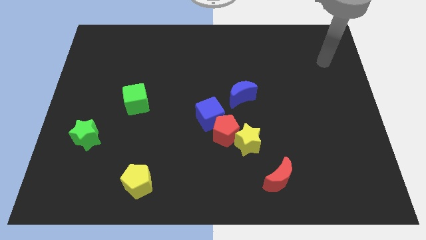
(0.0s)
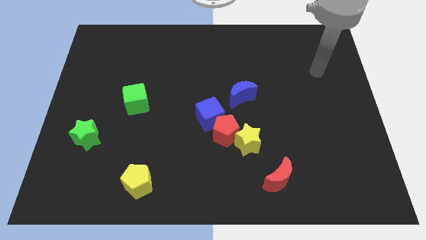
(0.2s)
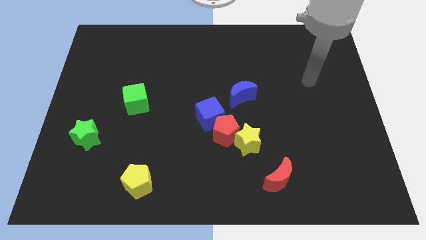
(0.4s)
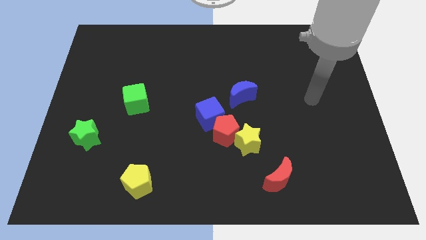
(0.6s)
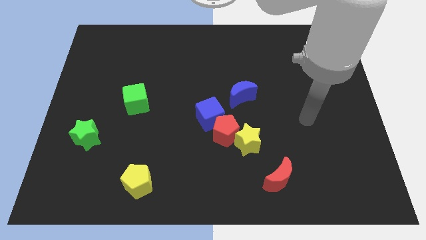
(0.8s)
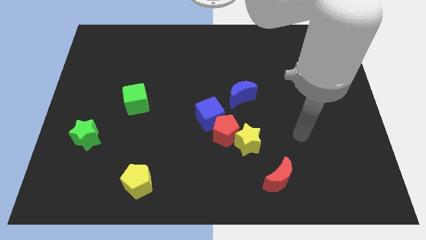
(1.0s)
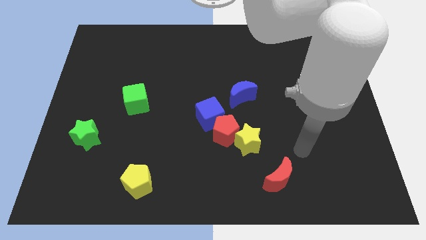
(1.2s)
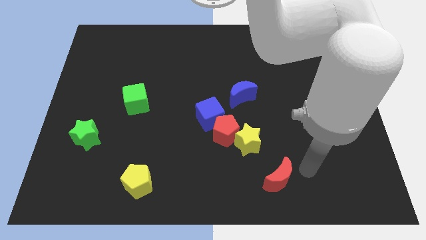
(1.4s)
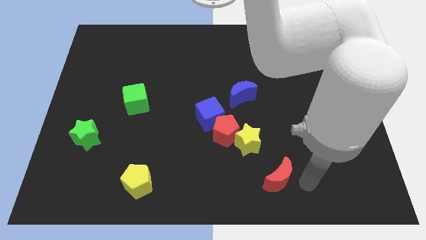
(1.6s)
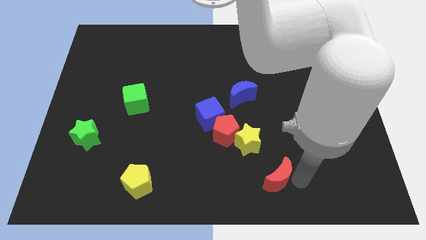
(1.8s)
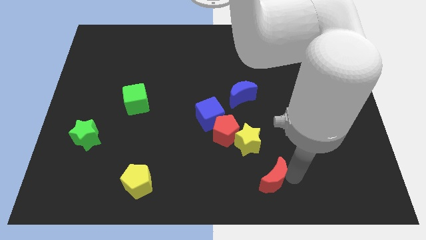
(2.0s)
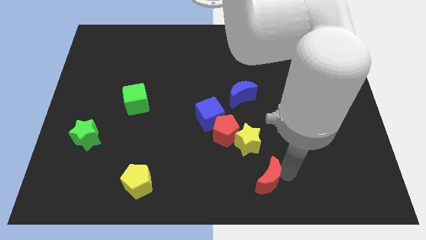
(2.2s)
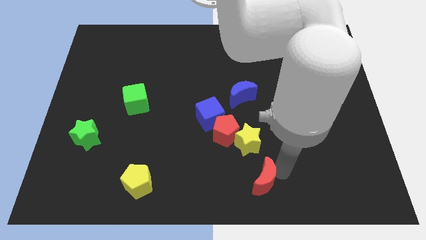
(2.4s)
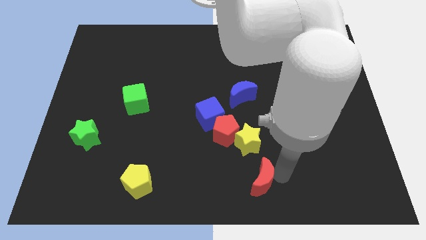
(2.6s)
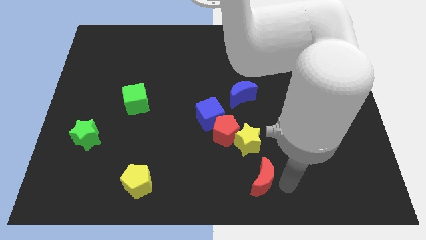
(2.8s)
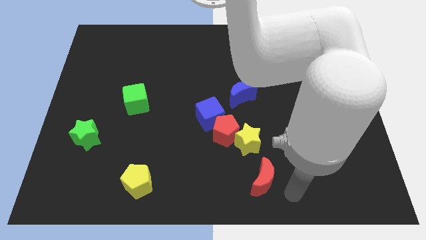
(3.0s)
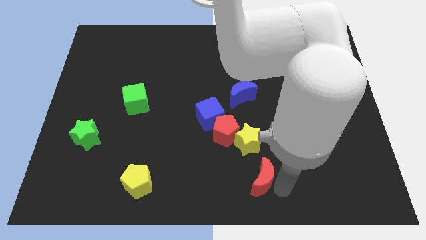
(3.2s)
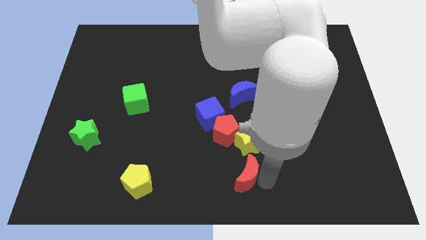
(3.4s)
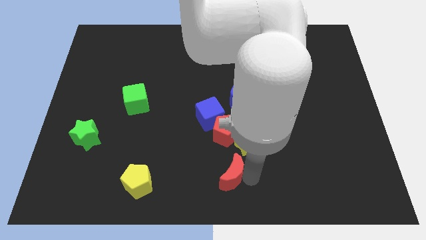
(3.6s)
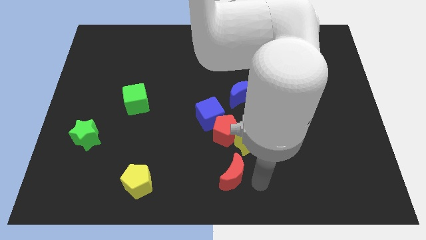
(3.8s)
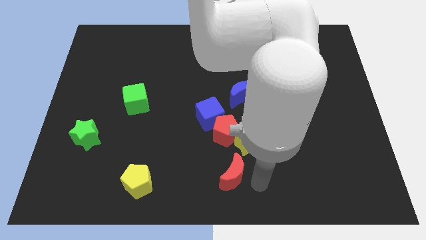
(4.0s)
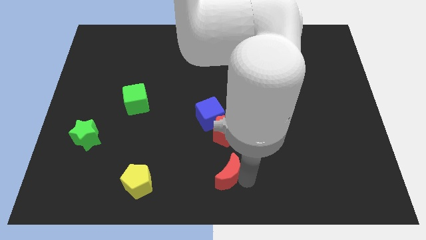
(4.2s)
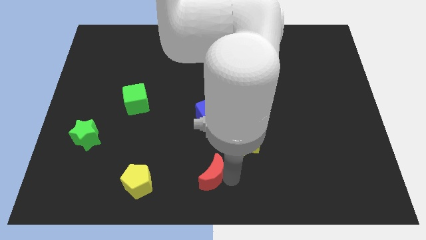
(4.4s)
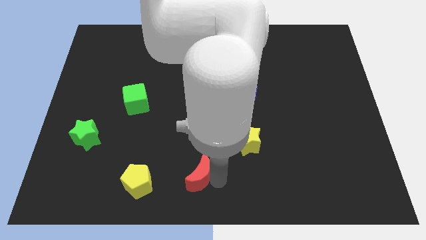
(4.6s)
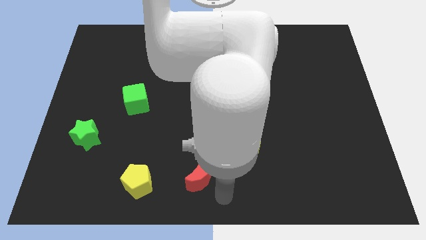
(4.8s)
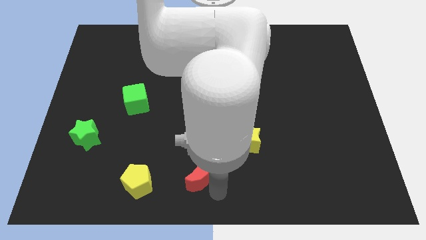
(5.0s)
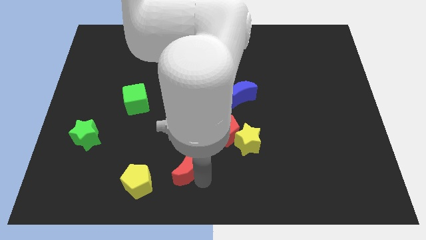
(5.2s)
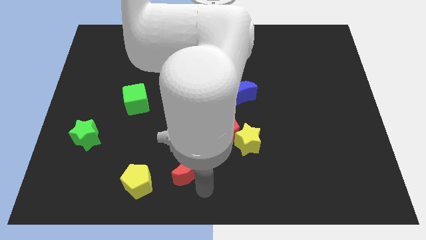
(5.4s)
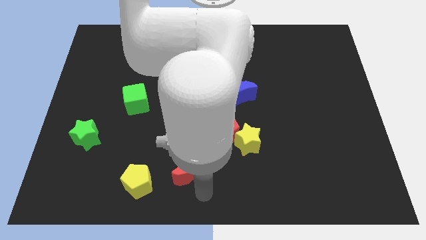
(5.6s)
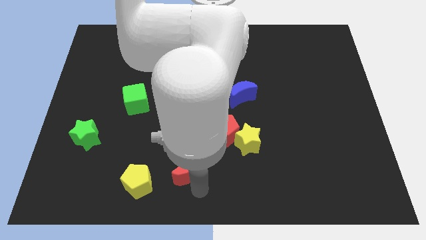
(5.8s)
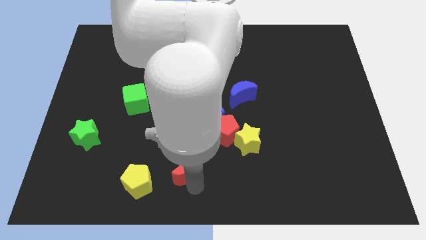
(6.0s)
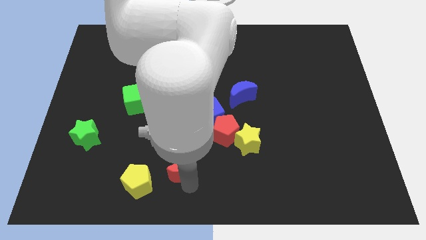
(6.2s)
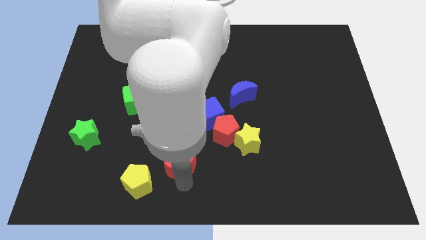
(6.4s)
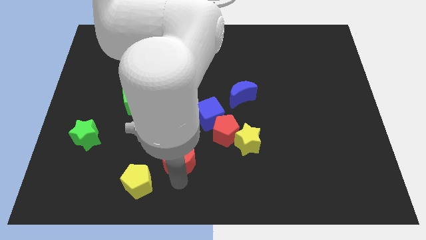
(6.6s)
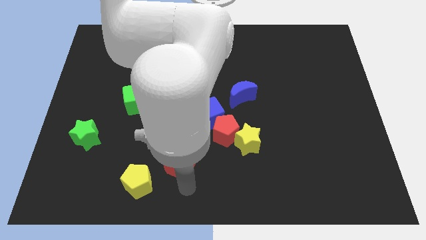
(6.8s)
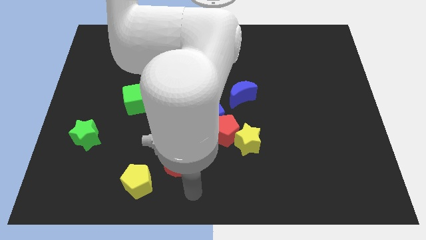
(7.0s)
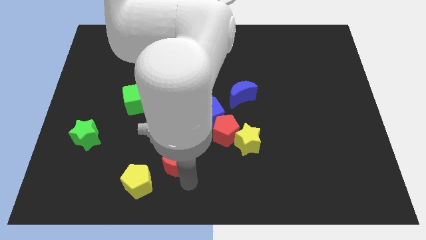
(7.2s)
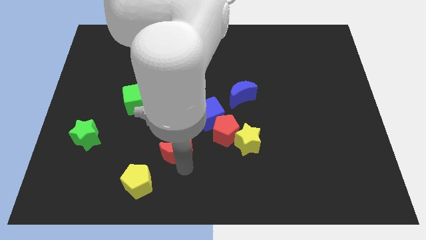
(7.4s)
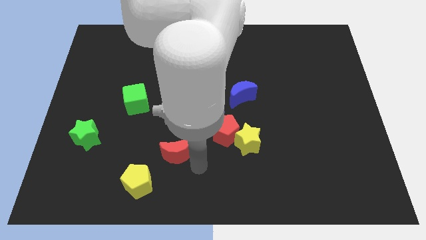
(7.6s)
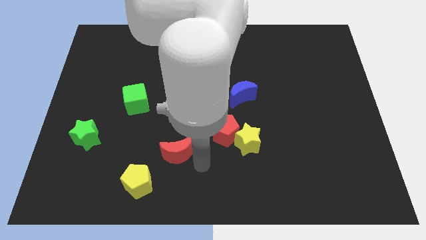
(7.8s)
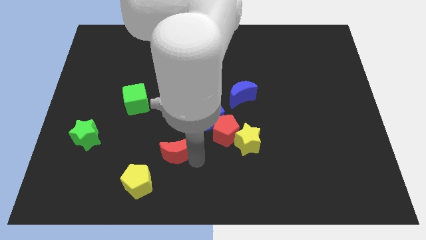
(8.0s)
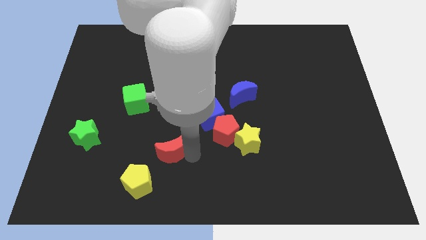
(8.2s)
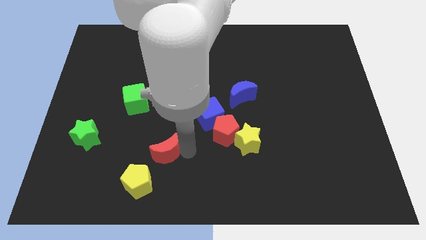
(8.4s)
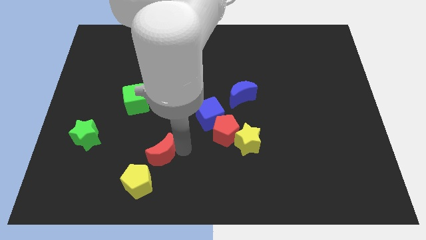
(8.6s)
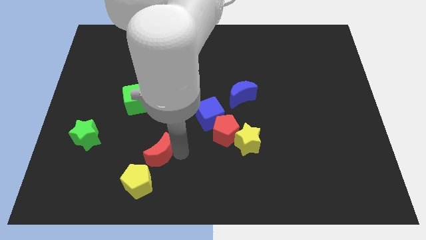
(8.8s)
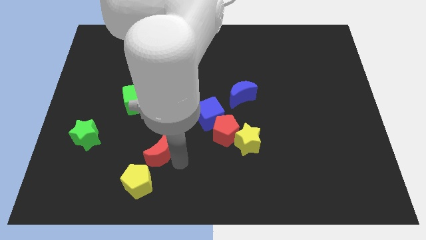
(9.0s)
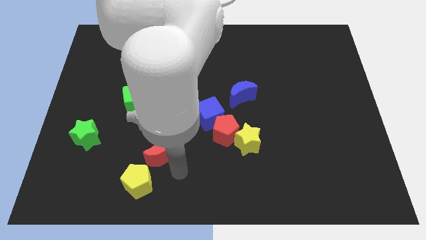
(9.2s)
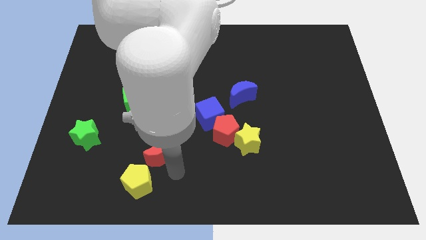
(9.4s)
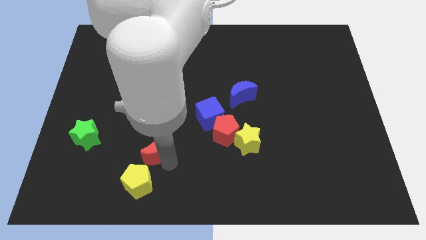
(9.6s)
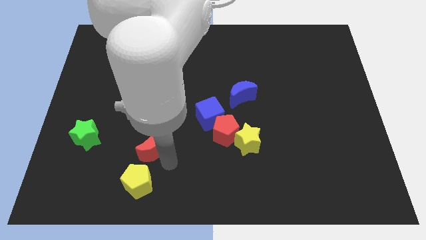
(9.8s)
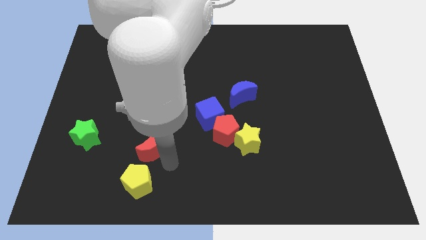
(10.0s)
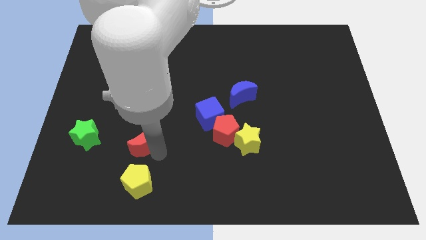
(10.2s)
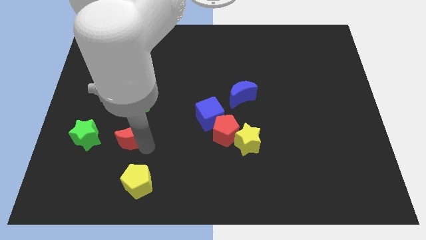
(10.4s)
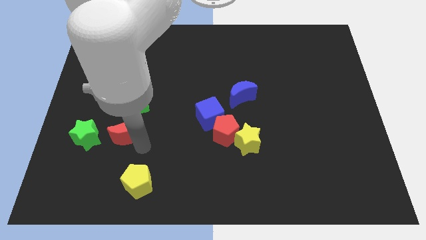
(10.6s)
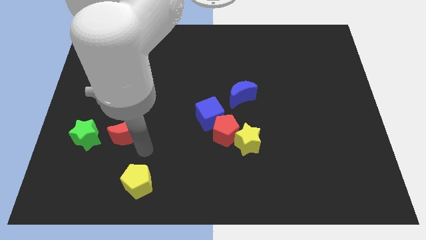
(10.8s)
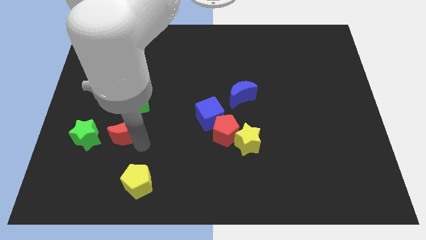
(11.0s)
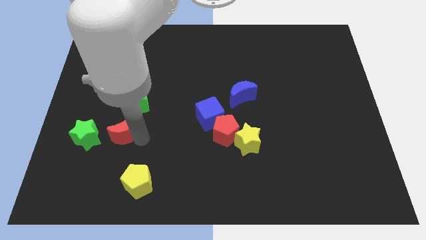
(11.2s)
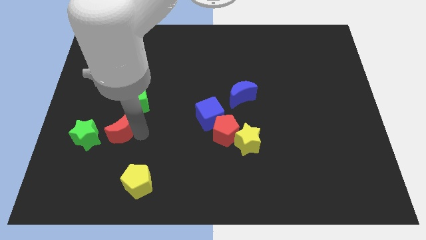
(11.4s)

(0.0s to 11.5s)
move the red moon diagonally down and to the left of the green cube

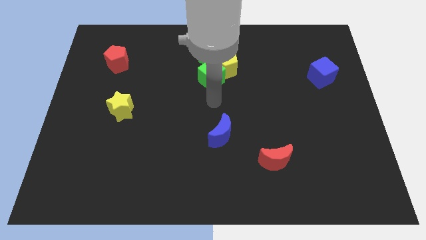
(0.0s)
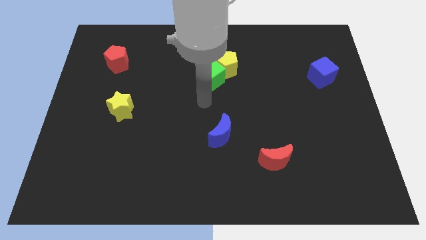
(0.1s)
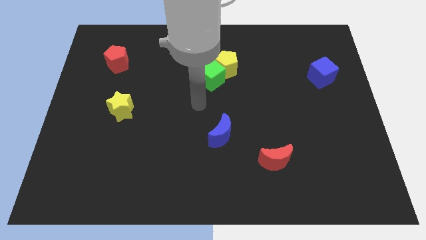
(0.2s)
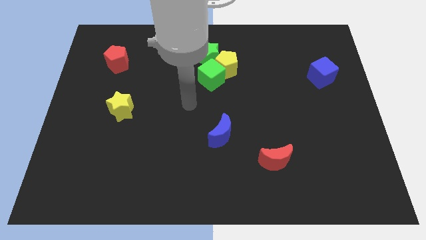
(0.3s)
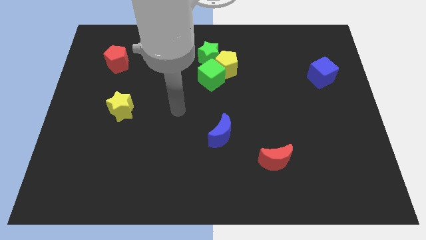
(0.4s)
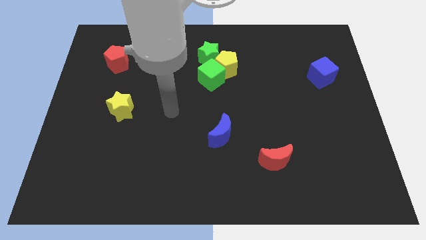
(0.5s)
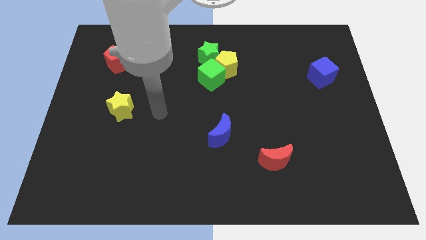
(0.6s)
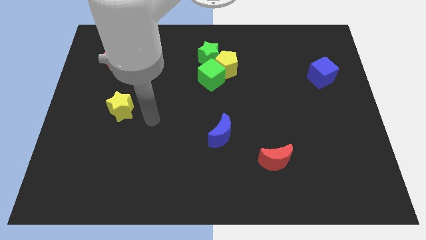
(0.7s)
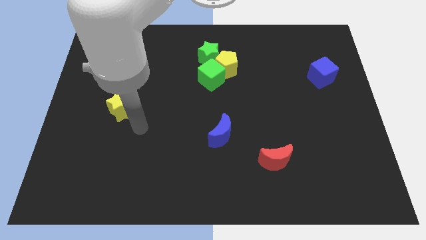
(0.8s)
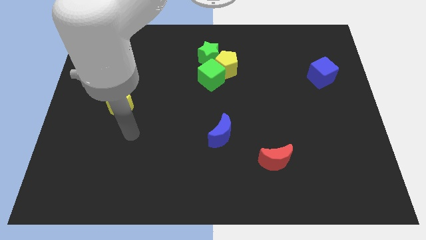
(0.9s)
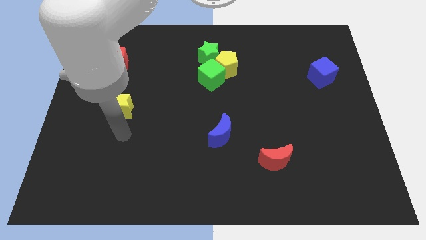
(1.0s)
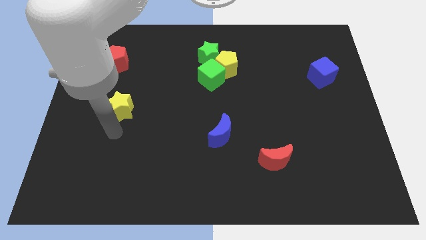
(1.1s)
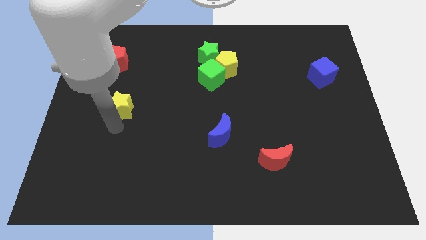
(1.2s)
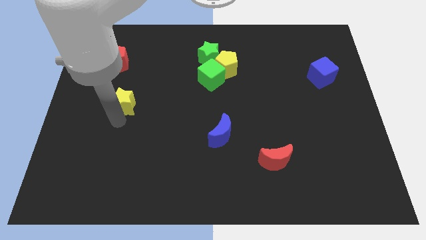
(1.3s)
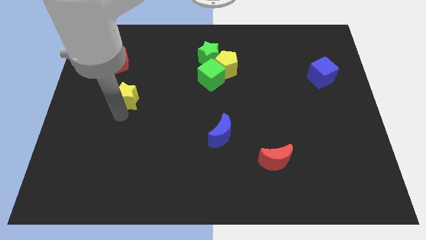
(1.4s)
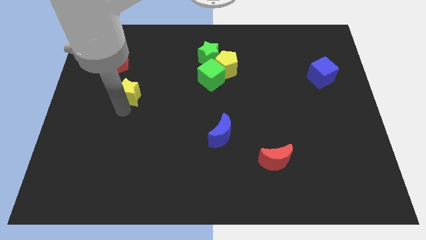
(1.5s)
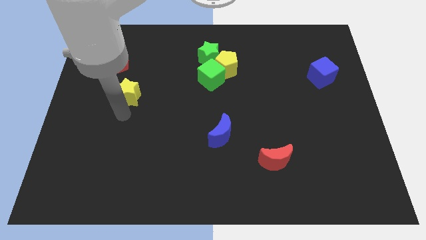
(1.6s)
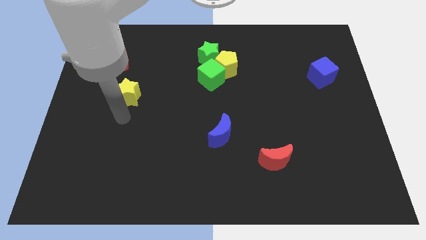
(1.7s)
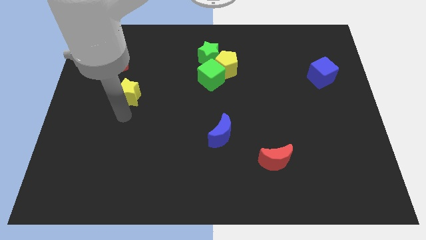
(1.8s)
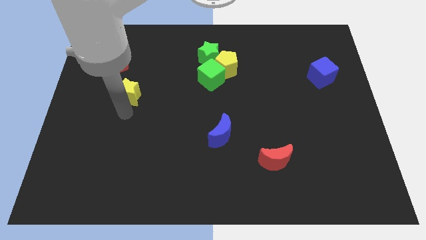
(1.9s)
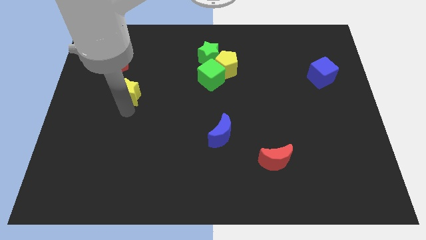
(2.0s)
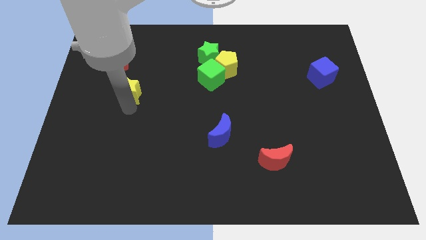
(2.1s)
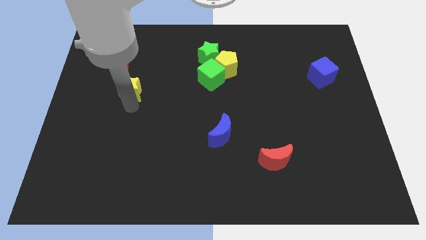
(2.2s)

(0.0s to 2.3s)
slide the yellow star to the bottom right side of the red pentagon
